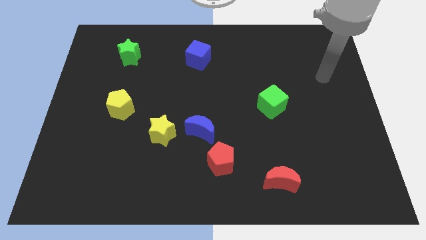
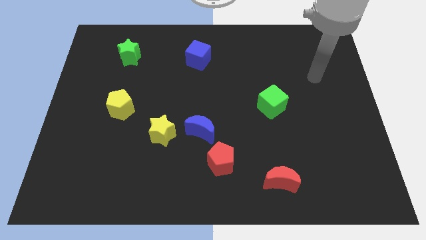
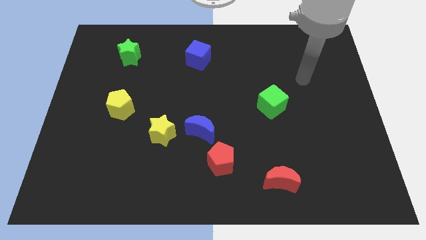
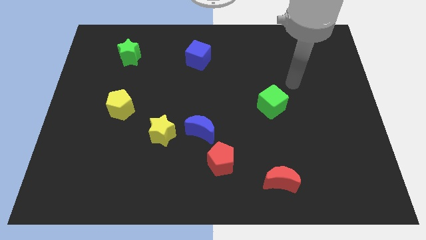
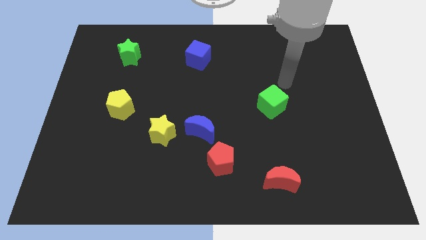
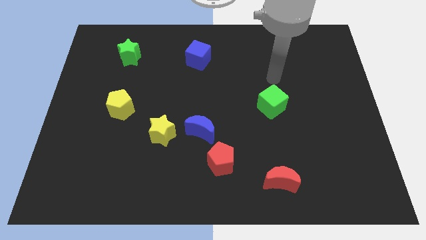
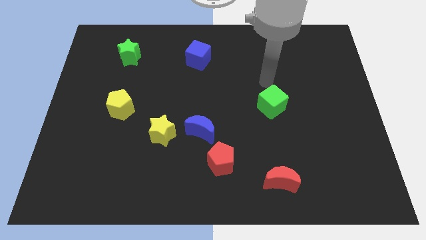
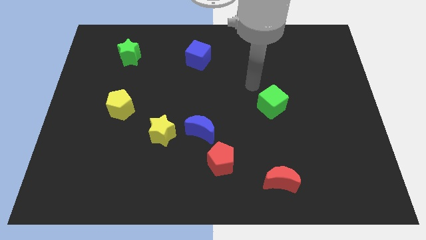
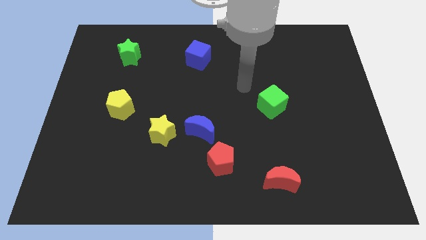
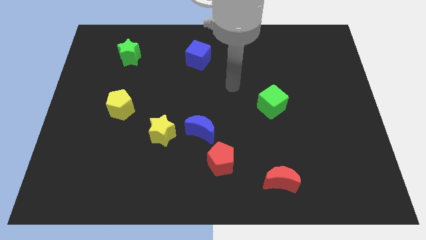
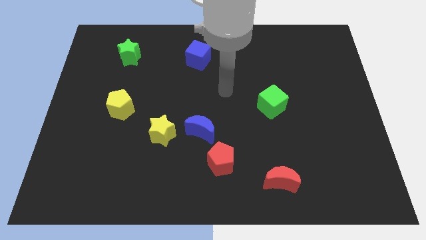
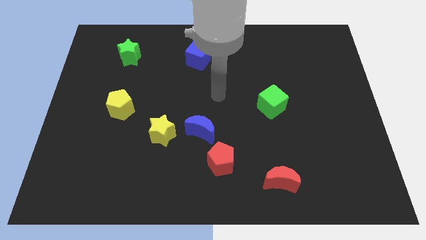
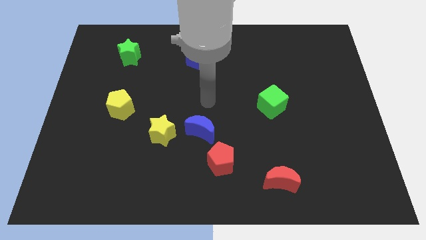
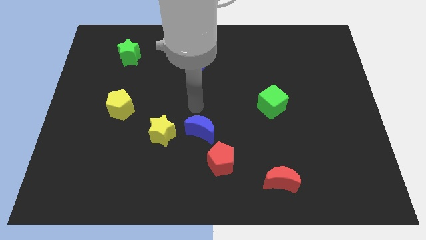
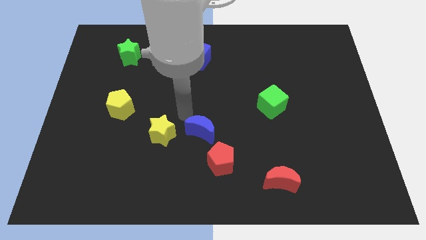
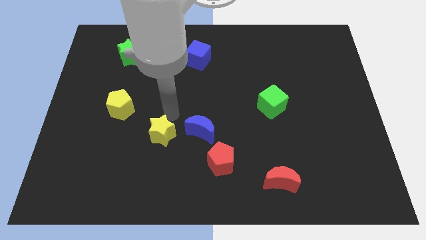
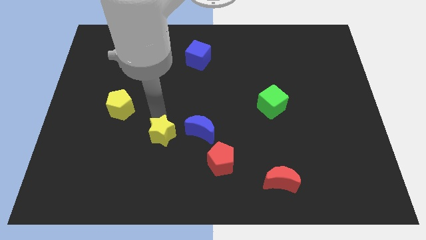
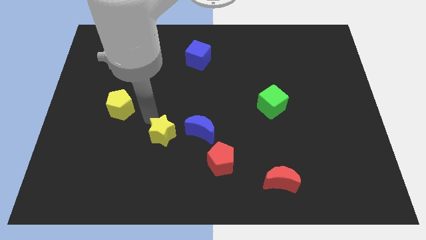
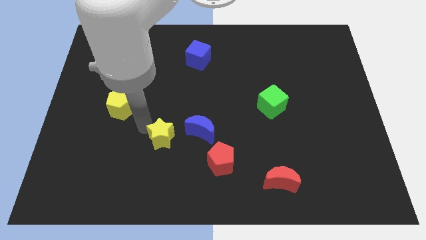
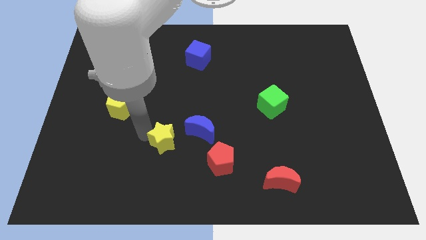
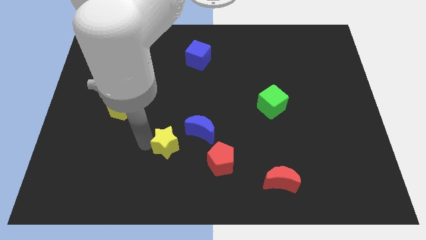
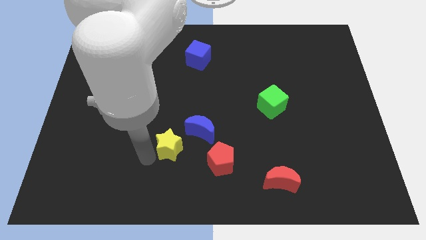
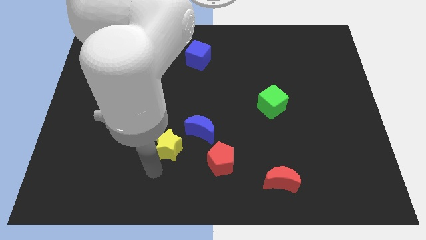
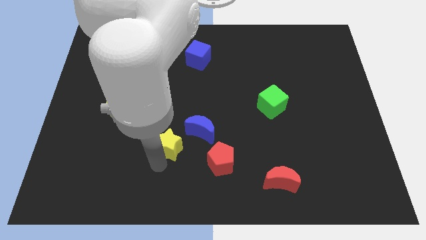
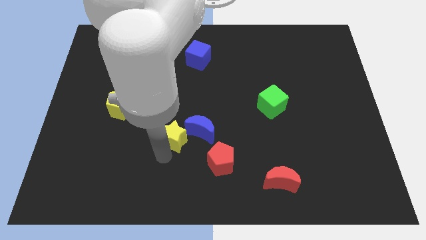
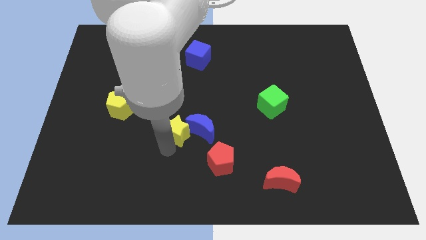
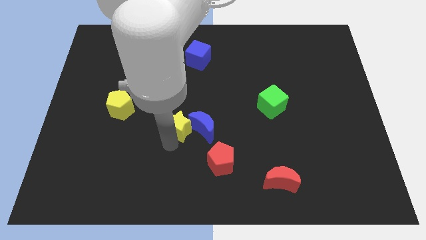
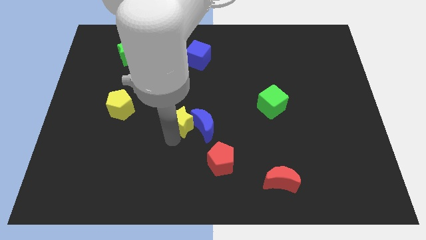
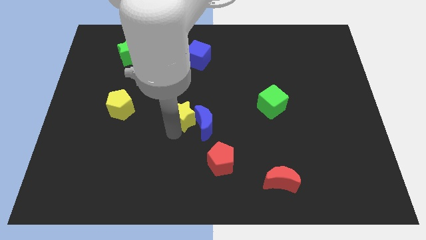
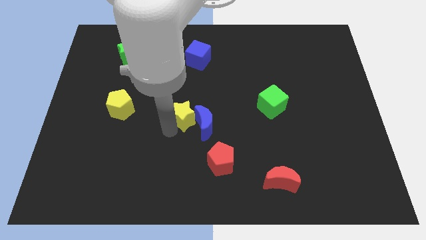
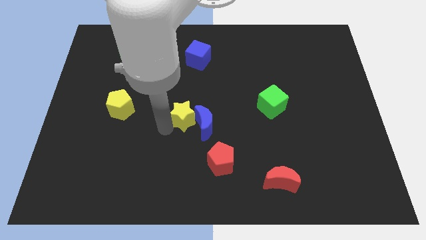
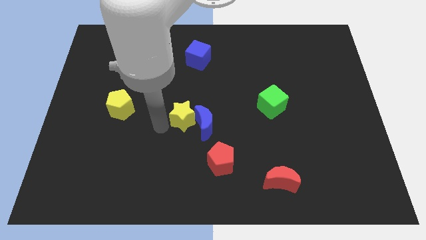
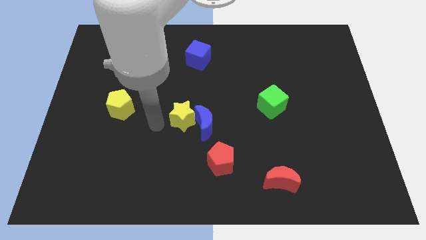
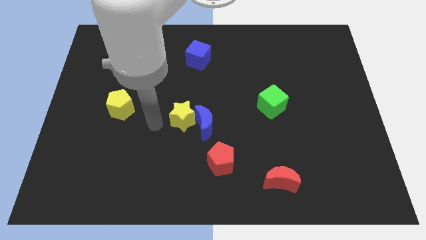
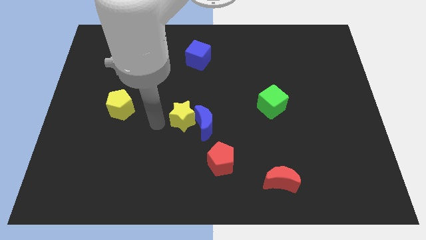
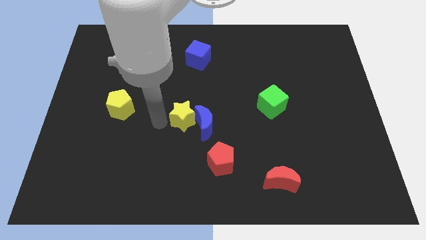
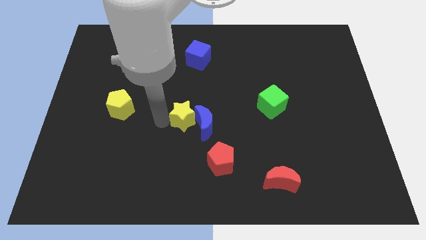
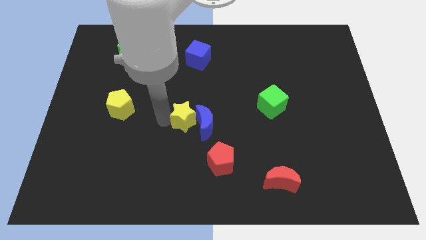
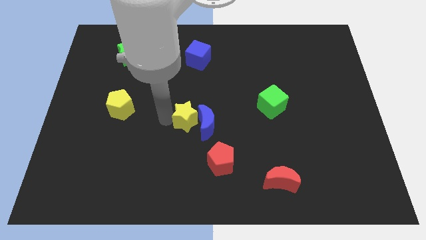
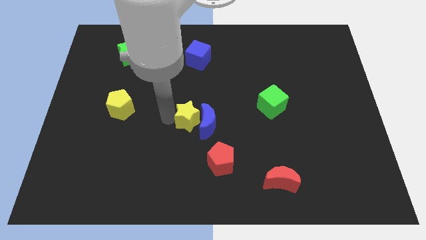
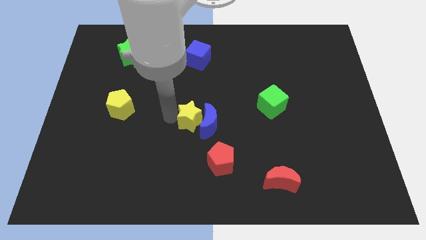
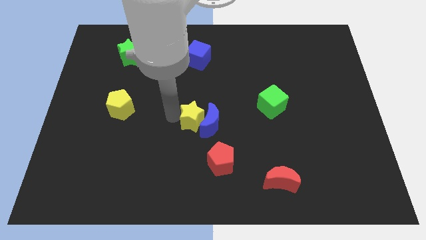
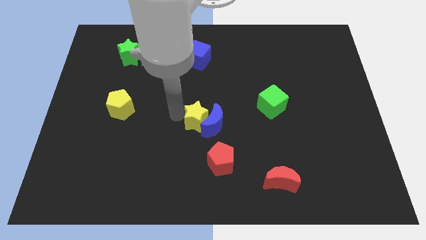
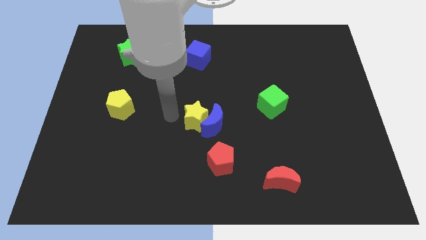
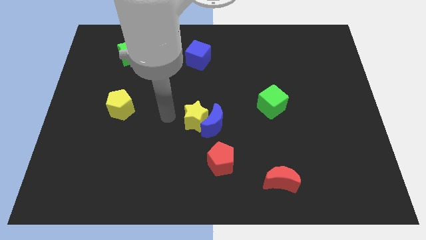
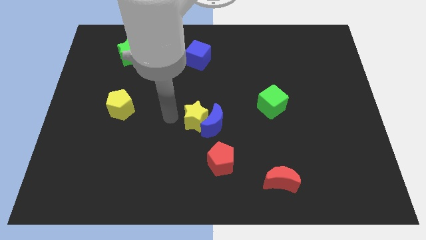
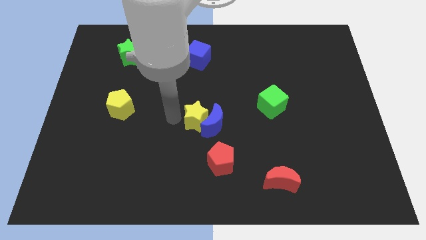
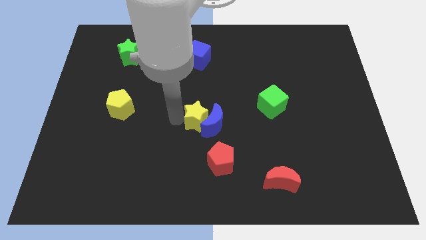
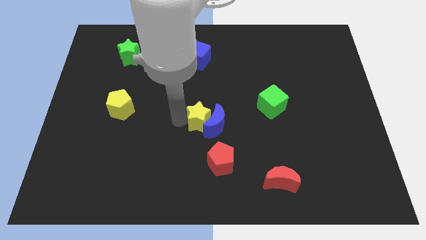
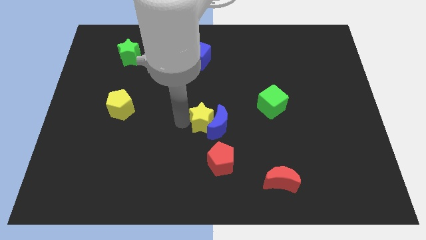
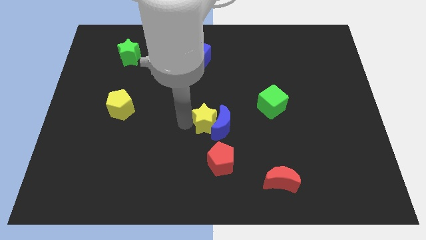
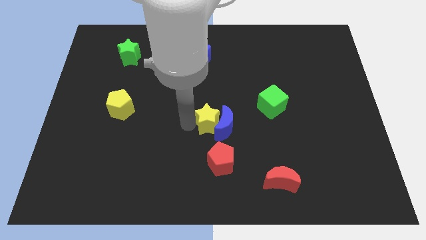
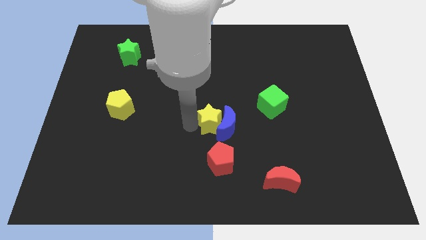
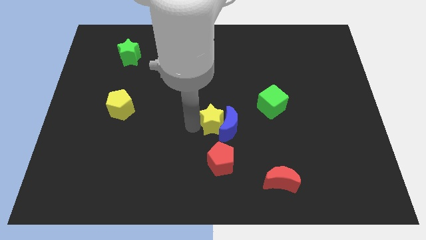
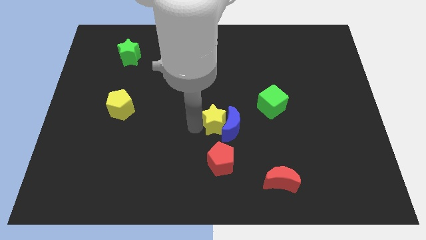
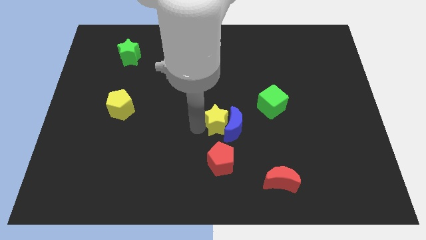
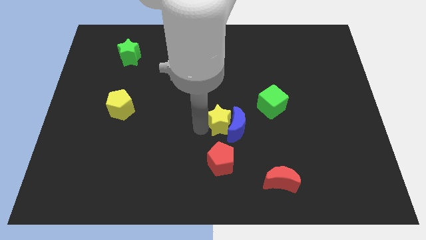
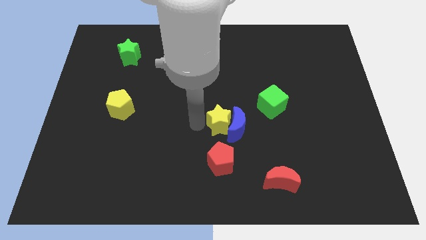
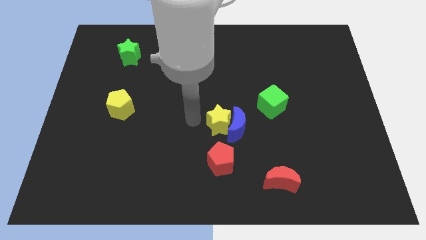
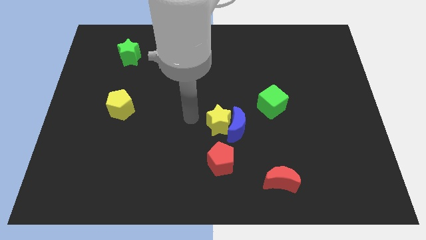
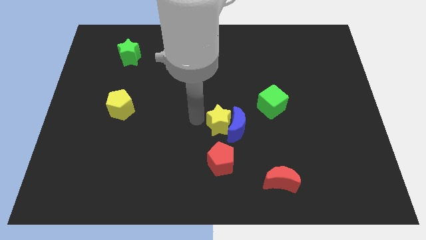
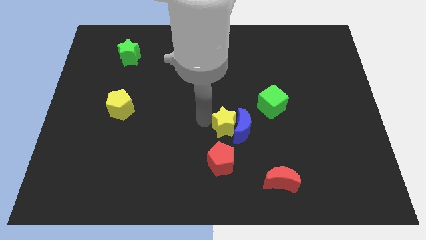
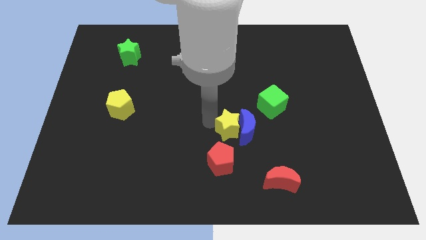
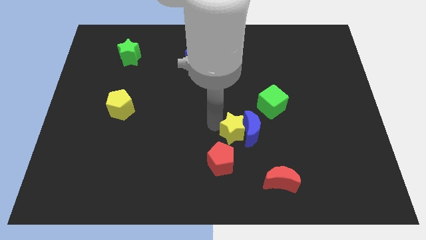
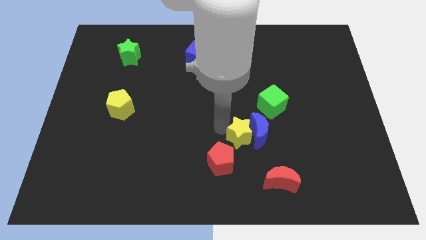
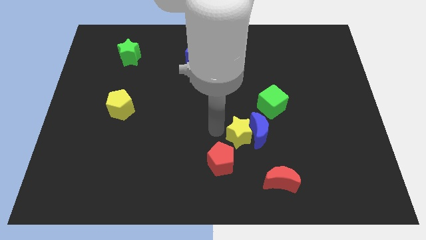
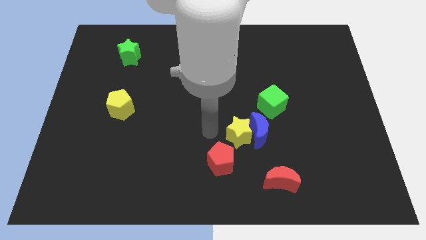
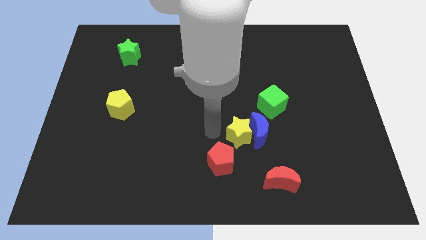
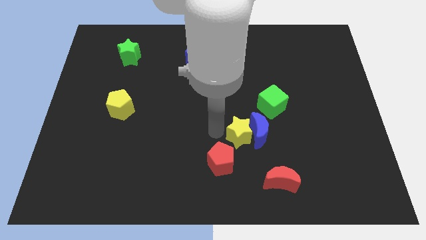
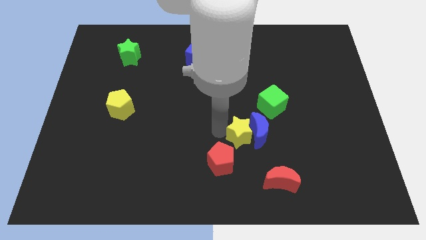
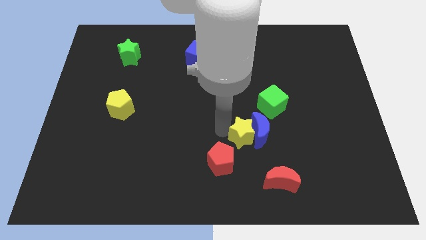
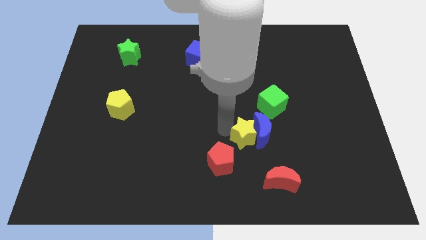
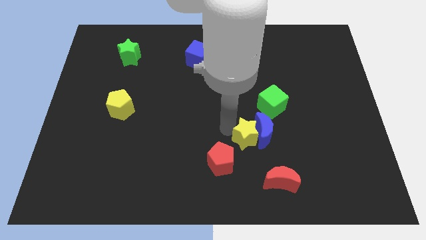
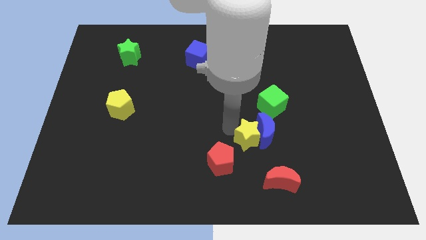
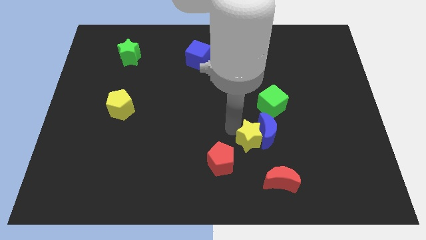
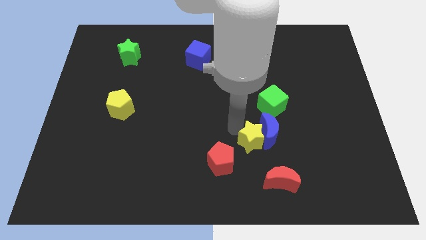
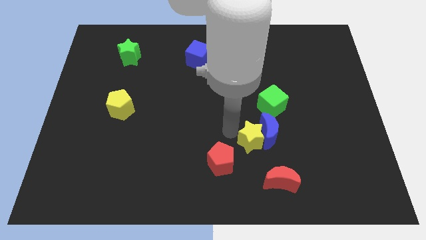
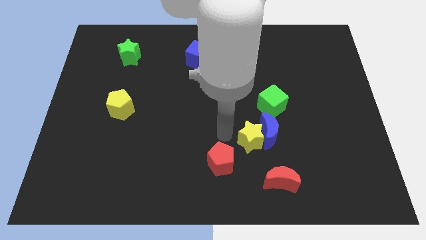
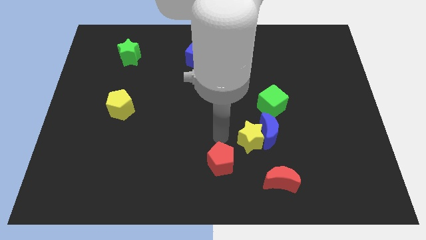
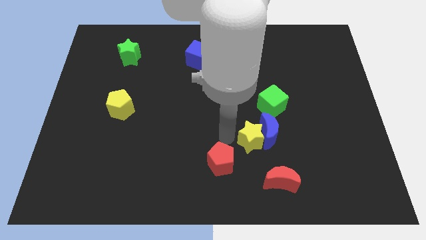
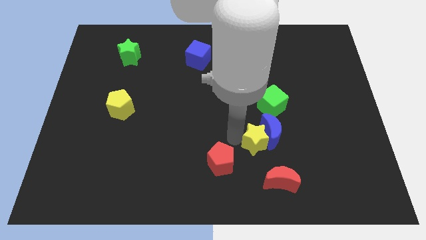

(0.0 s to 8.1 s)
push the yellow star to the bottom side of the green cube

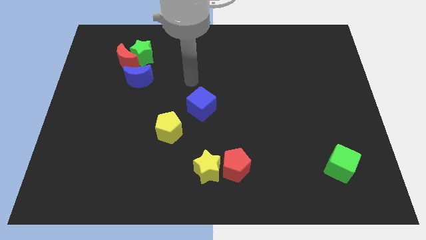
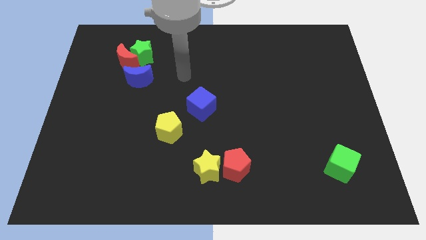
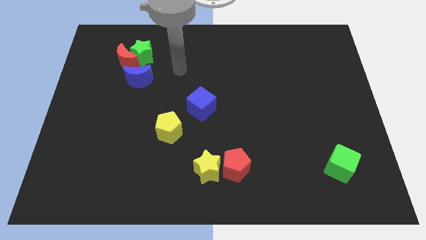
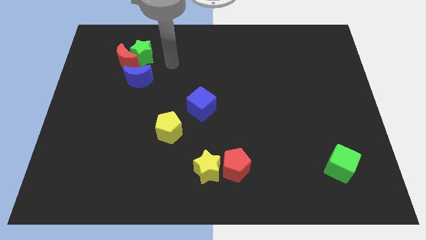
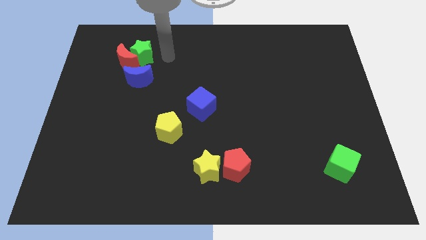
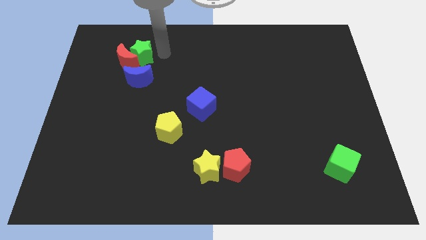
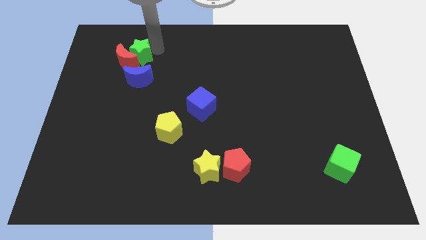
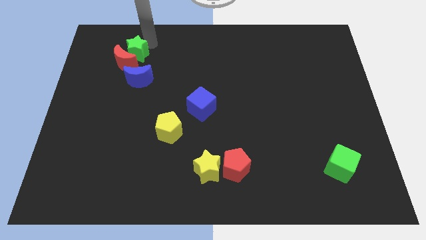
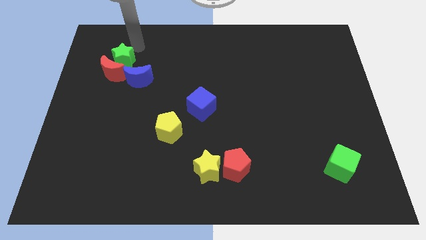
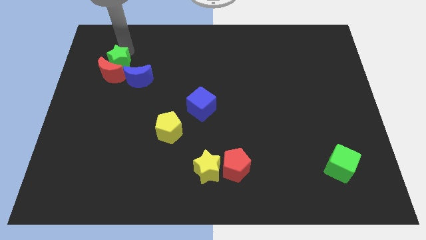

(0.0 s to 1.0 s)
put the red moon to the bottom right of the green star
